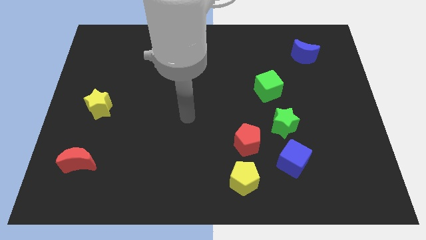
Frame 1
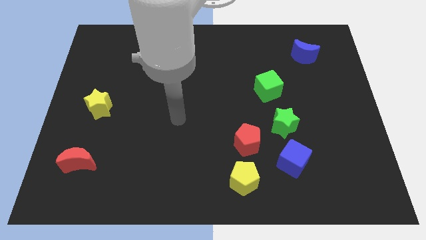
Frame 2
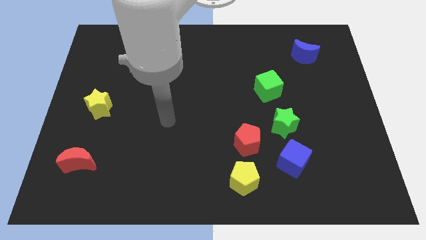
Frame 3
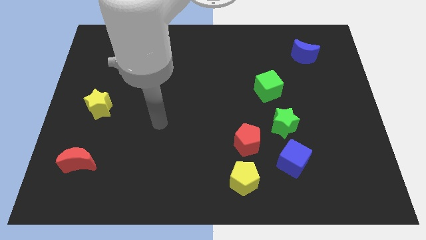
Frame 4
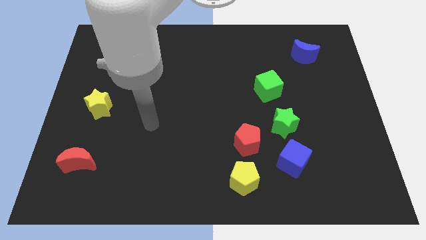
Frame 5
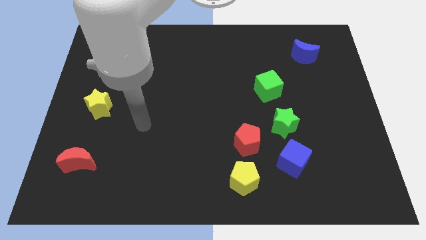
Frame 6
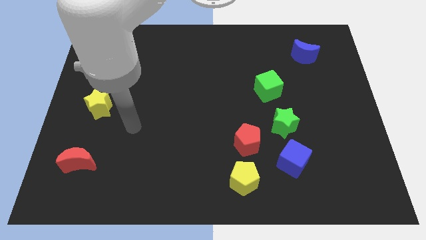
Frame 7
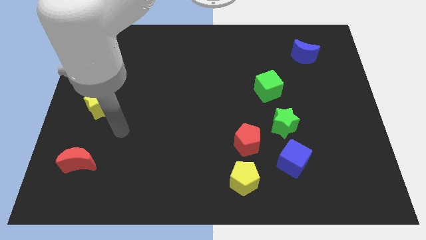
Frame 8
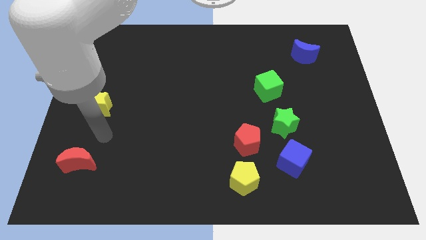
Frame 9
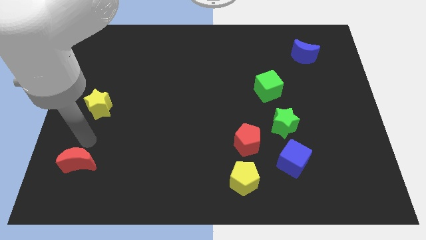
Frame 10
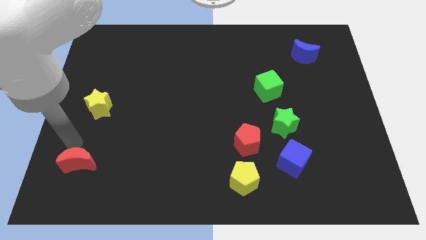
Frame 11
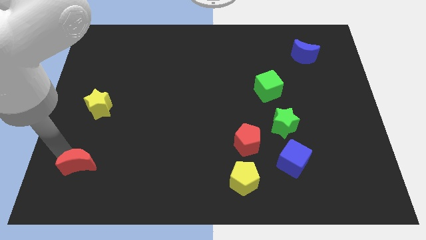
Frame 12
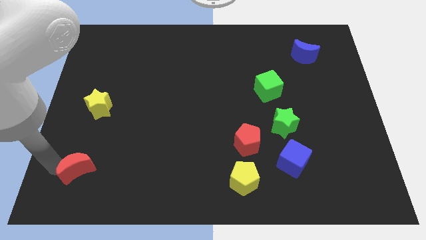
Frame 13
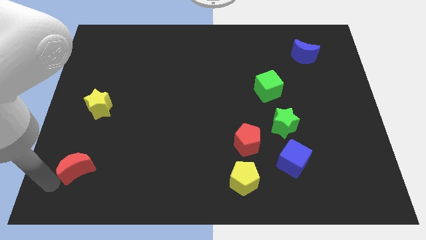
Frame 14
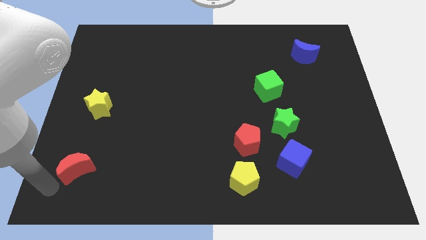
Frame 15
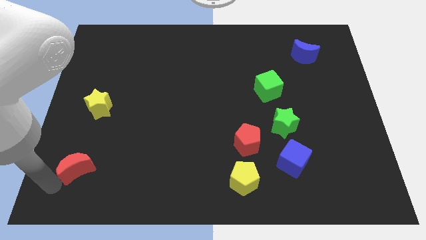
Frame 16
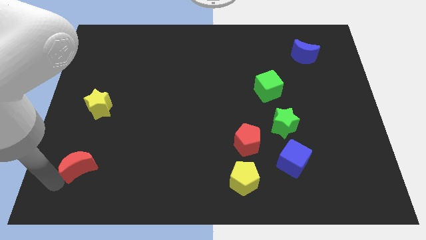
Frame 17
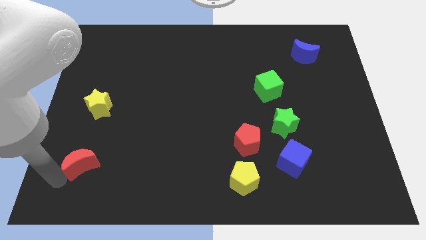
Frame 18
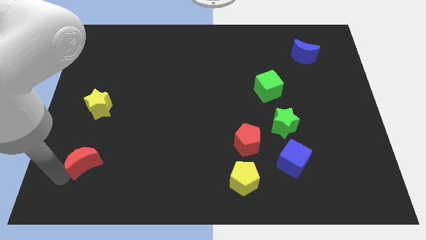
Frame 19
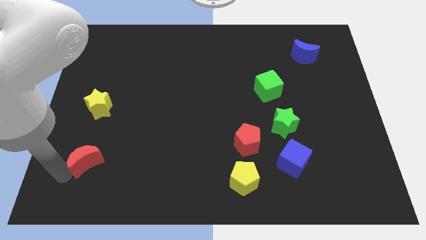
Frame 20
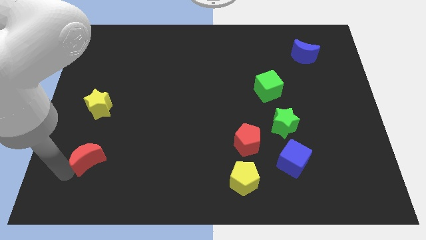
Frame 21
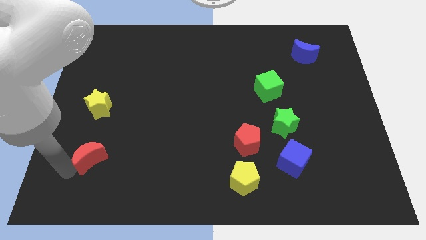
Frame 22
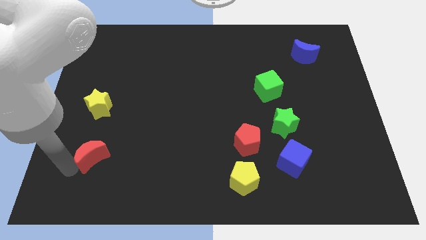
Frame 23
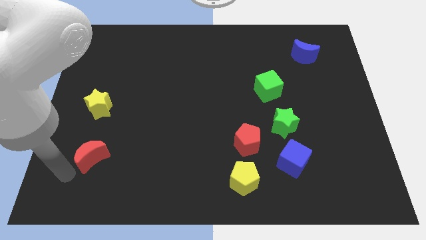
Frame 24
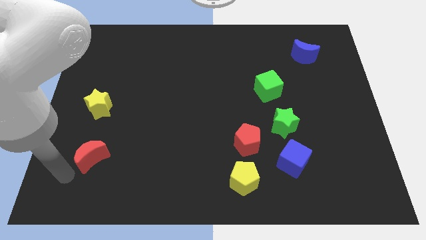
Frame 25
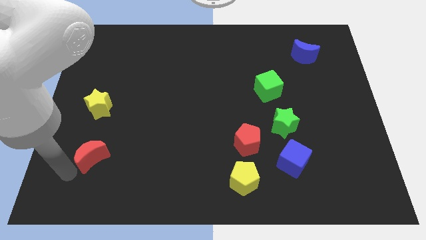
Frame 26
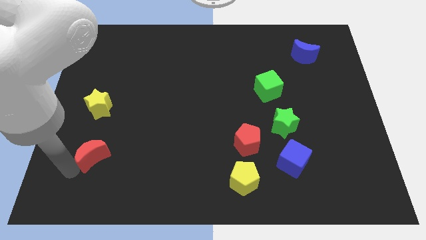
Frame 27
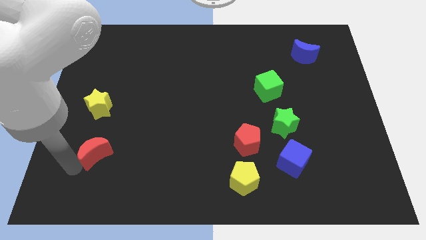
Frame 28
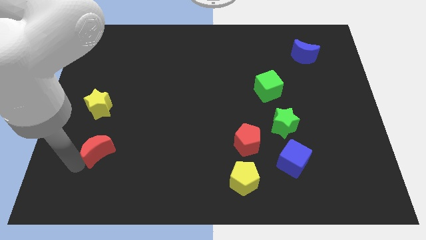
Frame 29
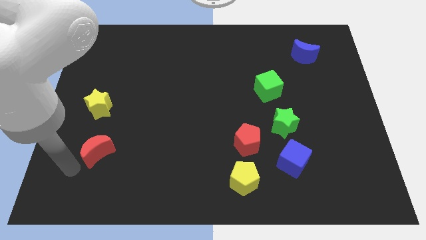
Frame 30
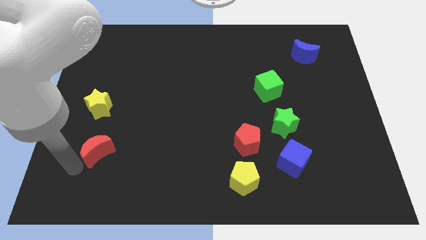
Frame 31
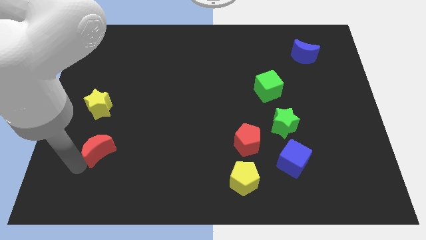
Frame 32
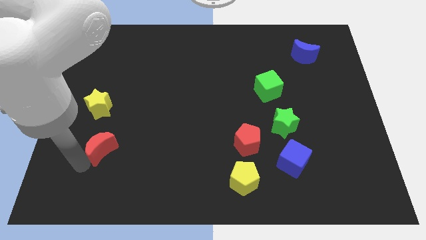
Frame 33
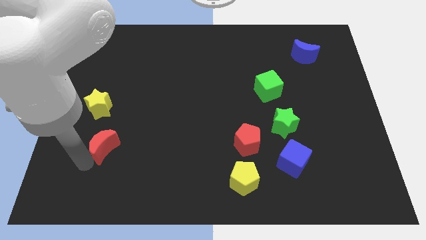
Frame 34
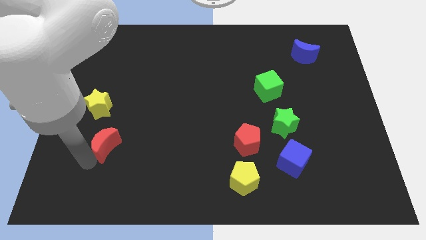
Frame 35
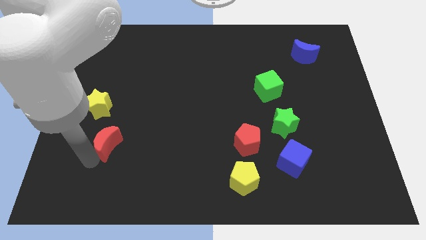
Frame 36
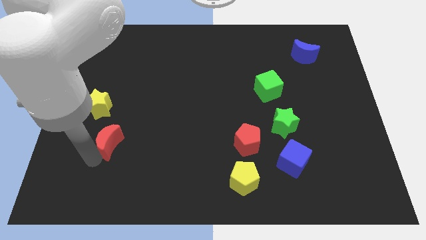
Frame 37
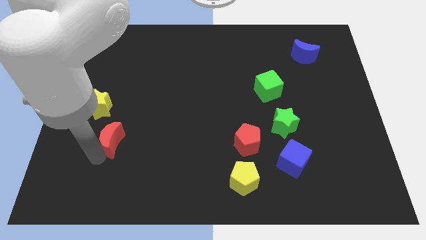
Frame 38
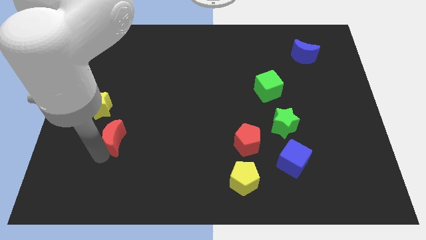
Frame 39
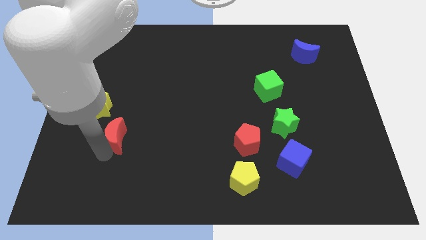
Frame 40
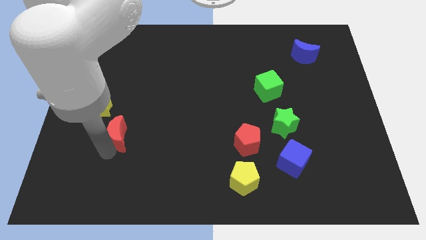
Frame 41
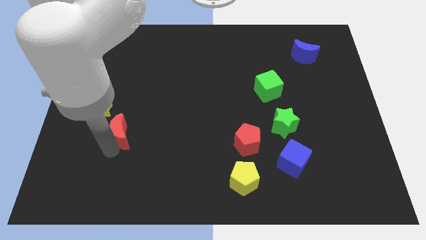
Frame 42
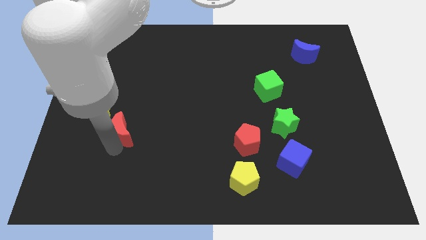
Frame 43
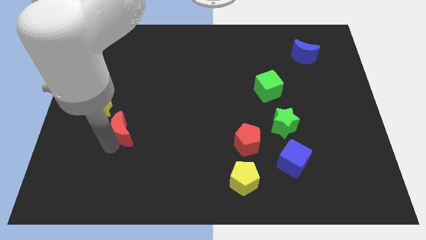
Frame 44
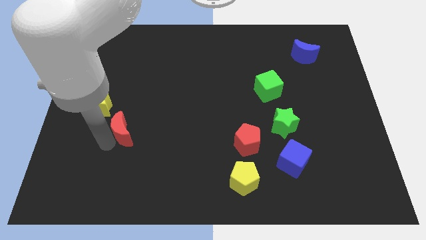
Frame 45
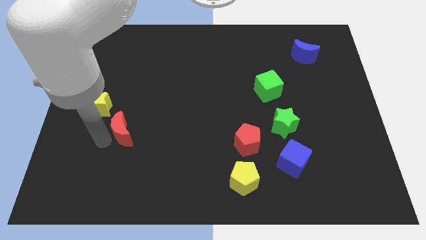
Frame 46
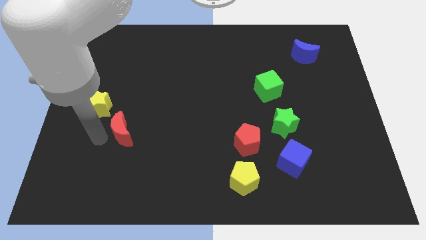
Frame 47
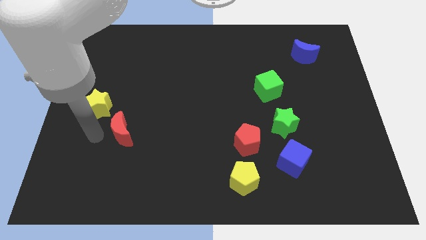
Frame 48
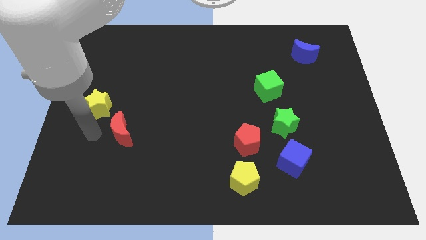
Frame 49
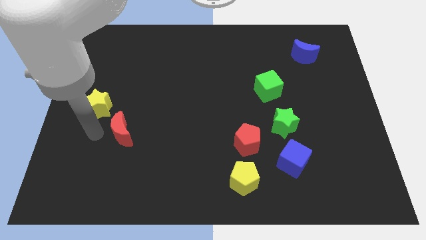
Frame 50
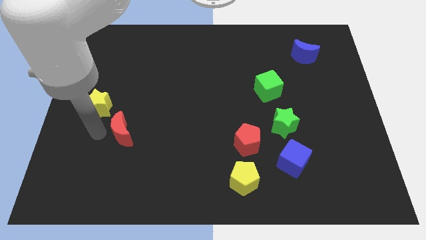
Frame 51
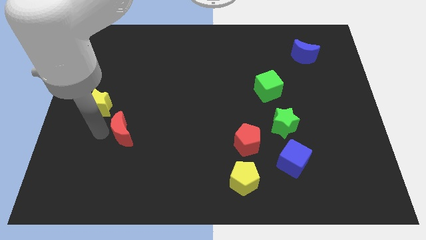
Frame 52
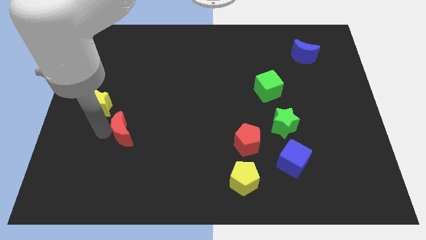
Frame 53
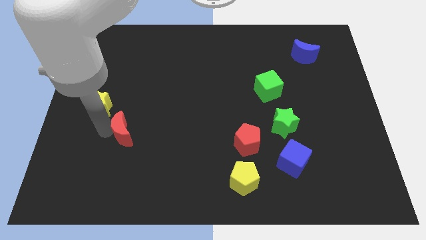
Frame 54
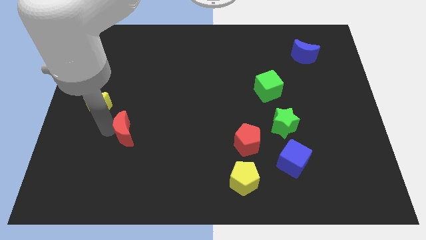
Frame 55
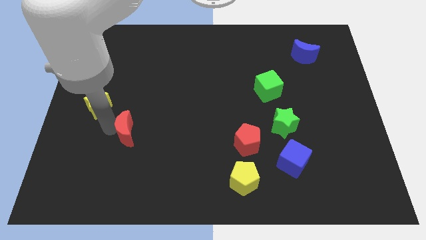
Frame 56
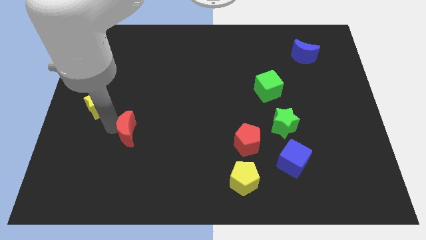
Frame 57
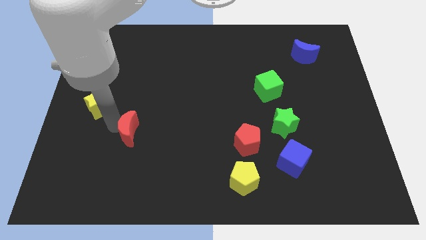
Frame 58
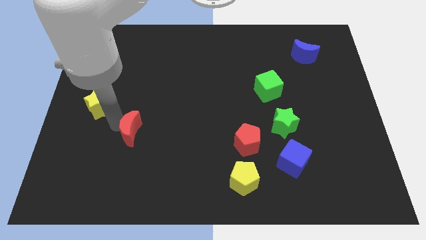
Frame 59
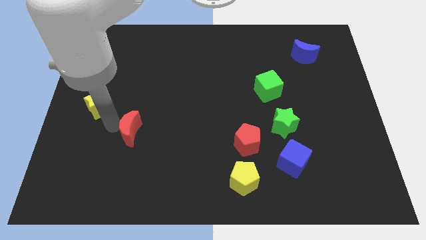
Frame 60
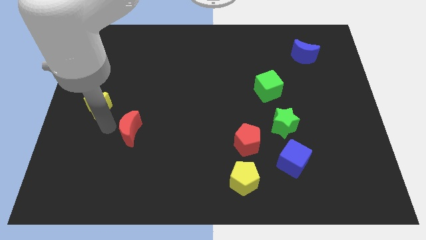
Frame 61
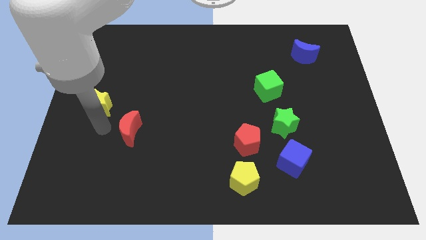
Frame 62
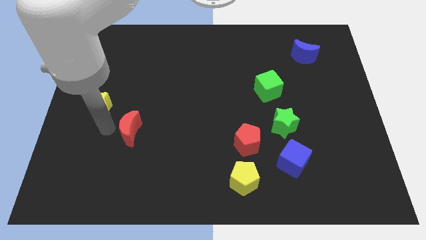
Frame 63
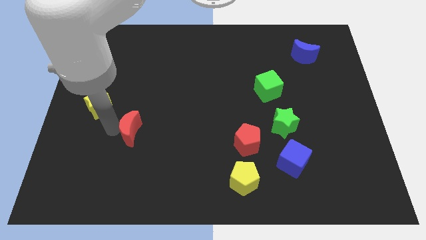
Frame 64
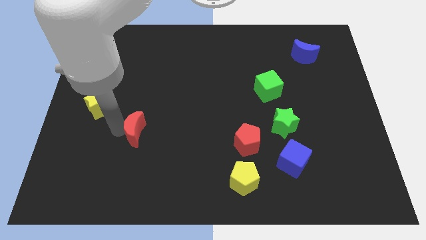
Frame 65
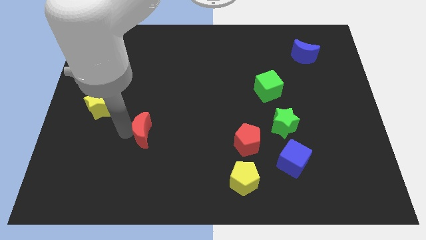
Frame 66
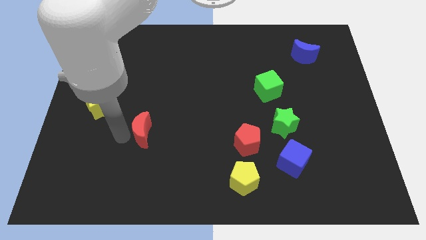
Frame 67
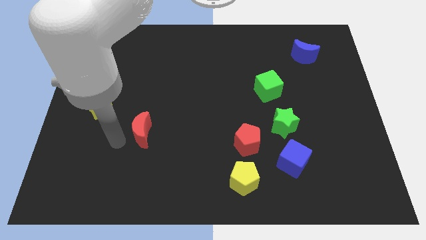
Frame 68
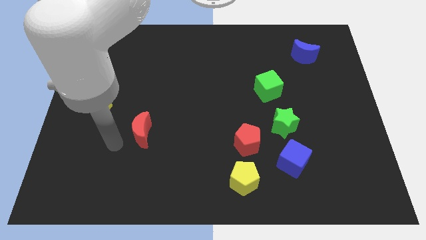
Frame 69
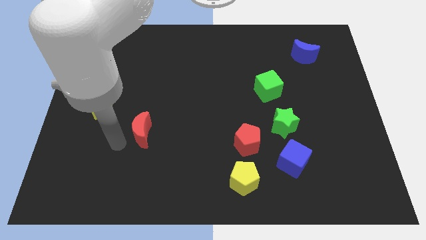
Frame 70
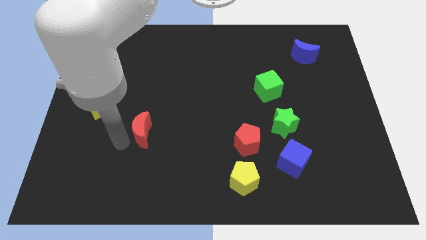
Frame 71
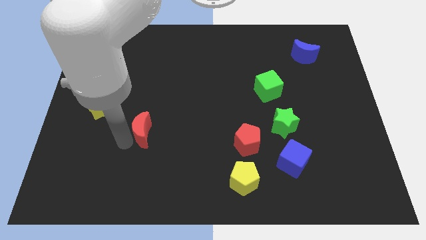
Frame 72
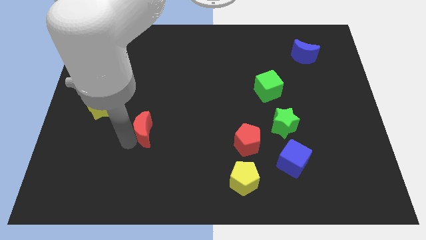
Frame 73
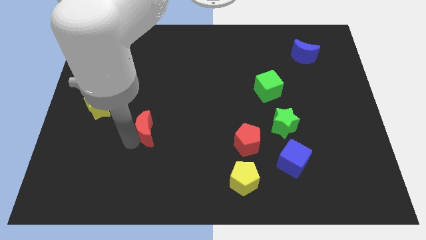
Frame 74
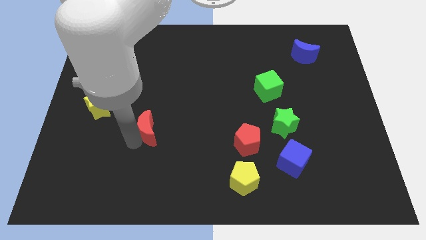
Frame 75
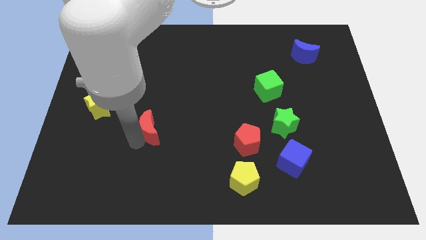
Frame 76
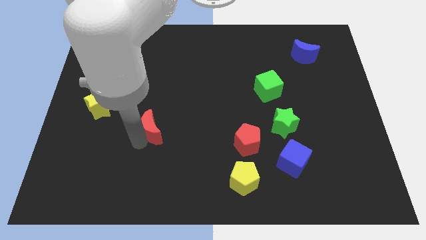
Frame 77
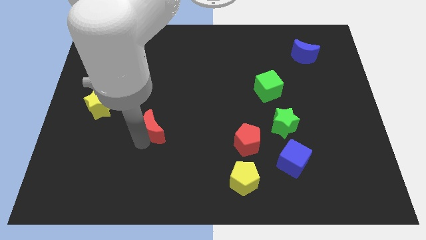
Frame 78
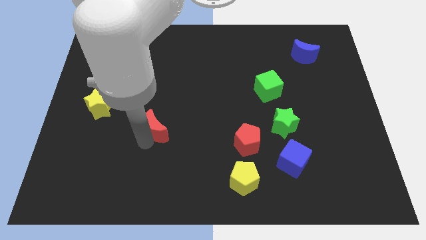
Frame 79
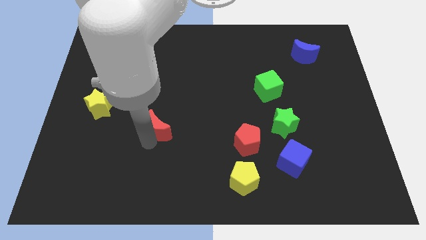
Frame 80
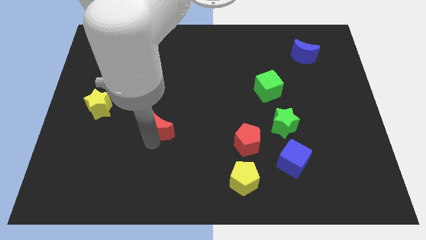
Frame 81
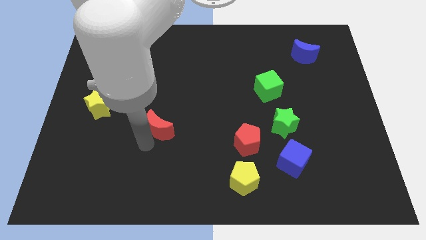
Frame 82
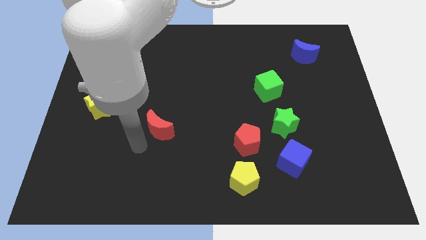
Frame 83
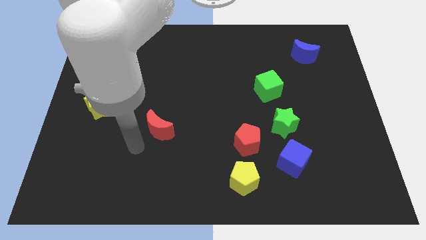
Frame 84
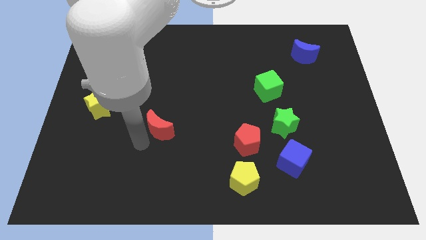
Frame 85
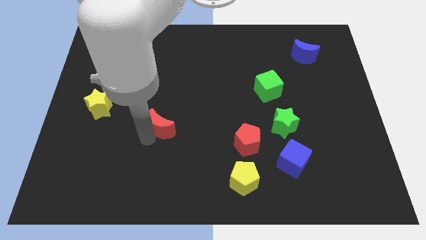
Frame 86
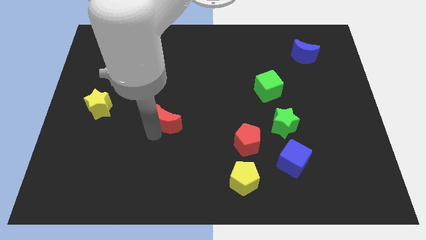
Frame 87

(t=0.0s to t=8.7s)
push the red moon to the center of the board
